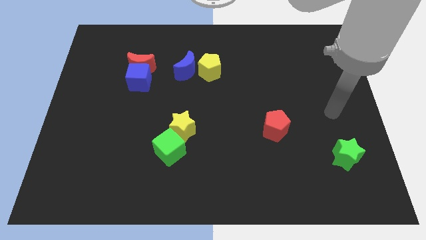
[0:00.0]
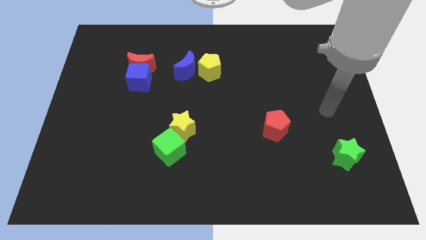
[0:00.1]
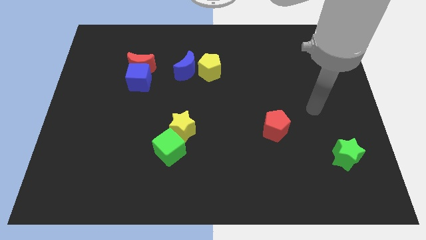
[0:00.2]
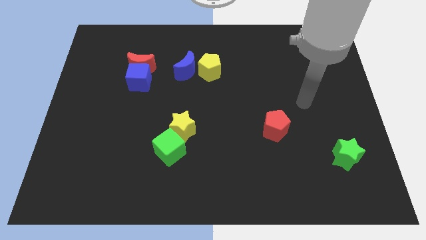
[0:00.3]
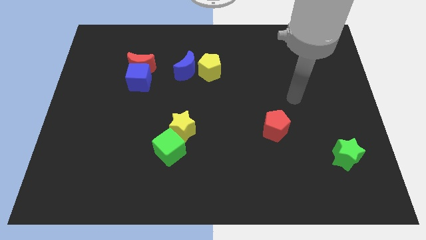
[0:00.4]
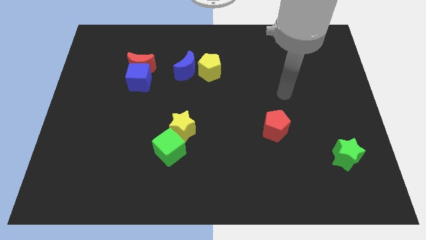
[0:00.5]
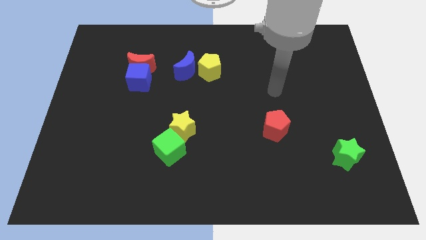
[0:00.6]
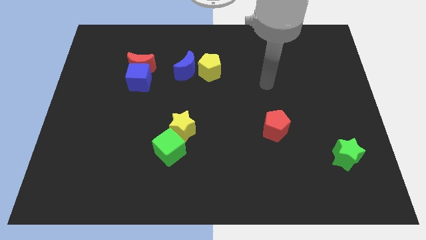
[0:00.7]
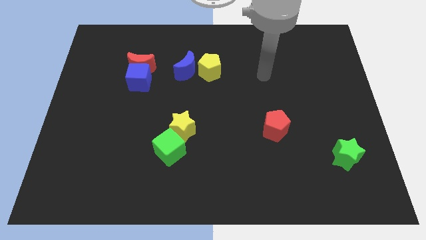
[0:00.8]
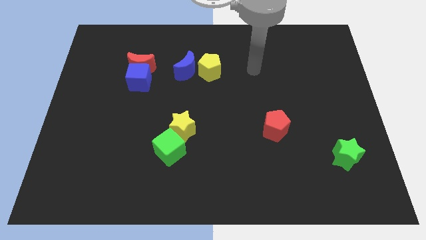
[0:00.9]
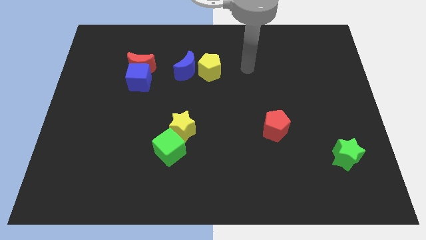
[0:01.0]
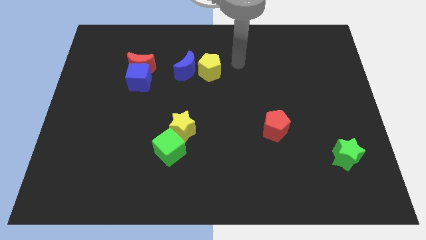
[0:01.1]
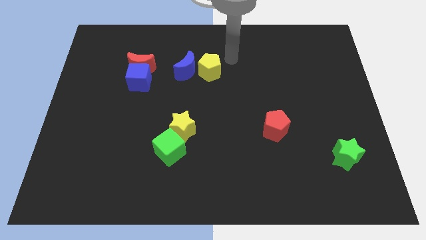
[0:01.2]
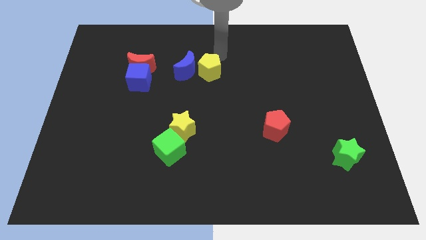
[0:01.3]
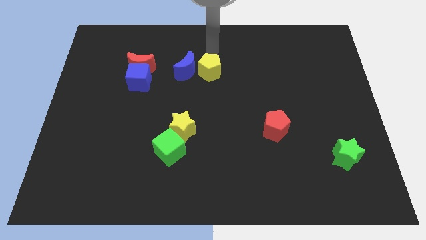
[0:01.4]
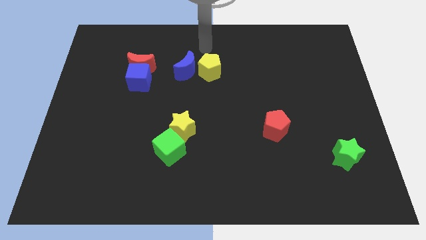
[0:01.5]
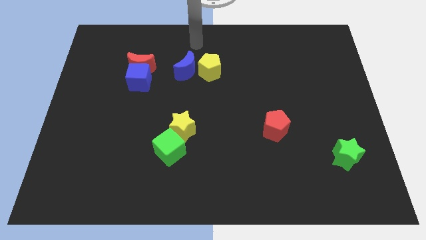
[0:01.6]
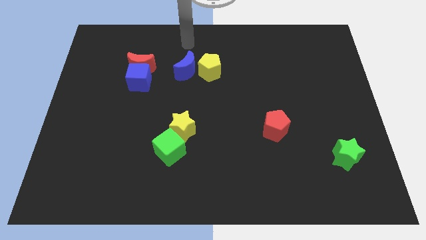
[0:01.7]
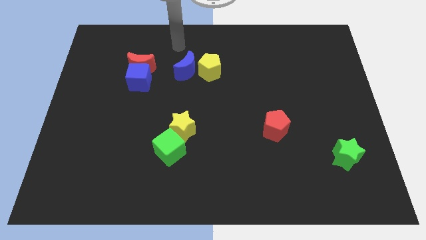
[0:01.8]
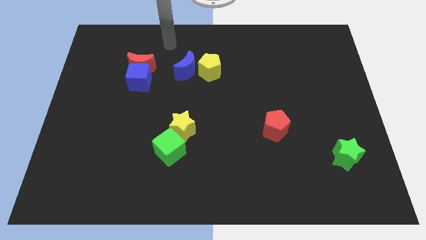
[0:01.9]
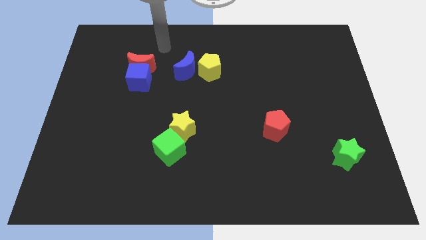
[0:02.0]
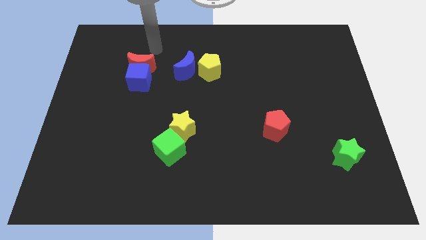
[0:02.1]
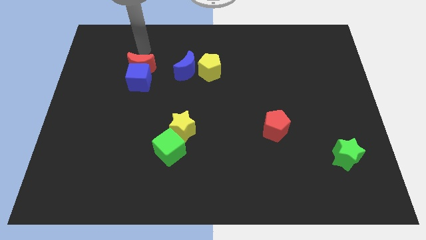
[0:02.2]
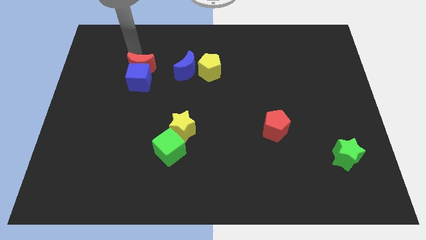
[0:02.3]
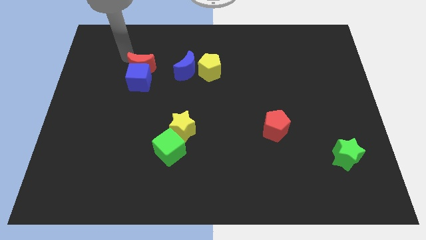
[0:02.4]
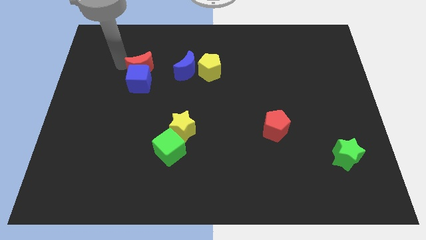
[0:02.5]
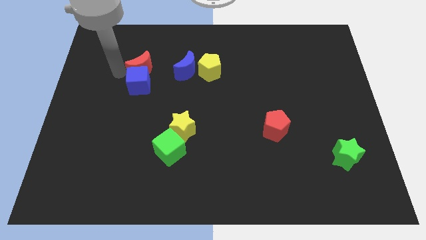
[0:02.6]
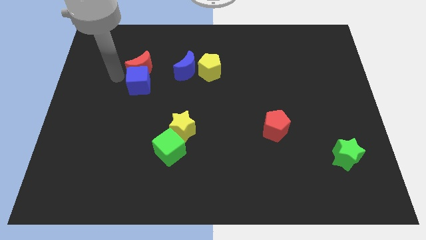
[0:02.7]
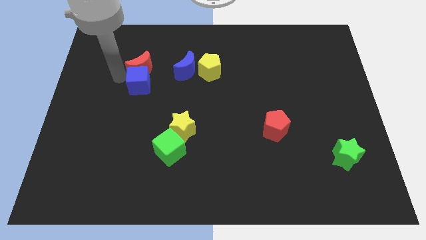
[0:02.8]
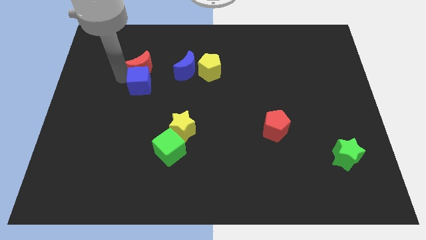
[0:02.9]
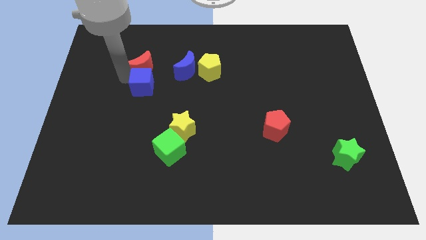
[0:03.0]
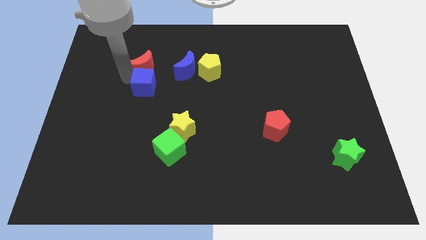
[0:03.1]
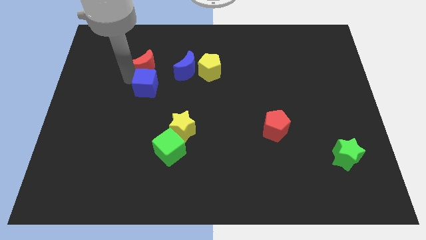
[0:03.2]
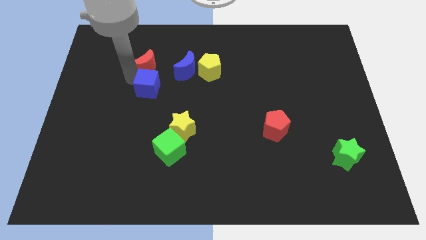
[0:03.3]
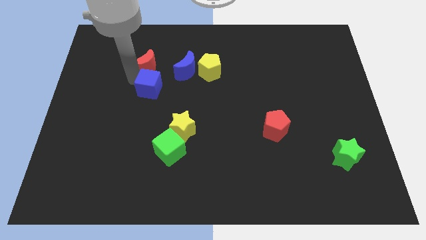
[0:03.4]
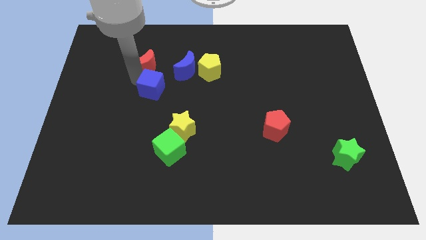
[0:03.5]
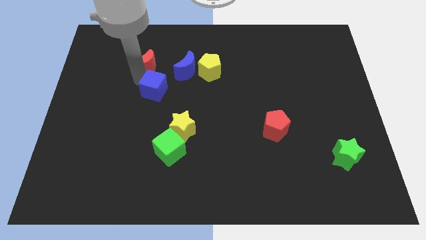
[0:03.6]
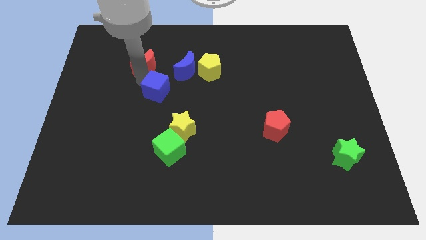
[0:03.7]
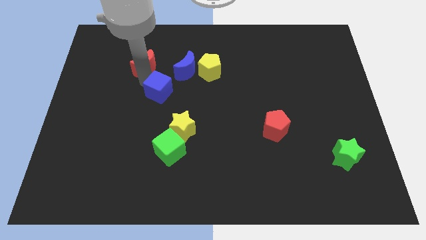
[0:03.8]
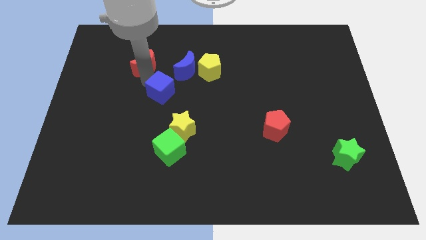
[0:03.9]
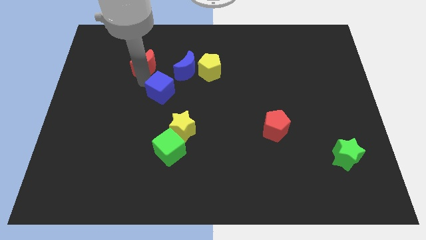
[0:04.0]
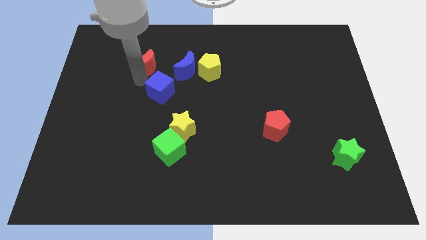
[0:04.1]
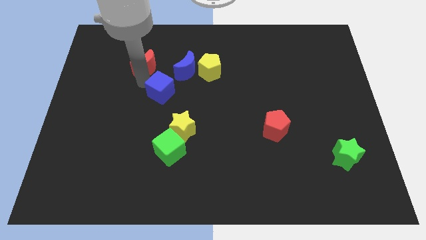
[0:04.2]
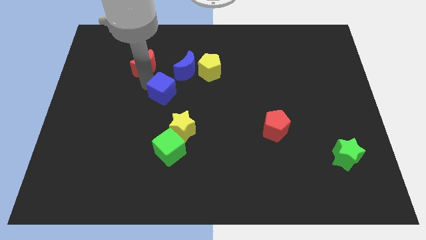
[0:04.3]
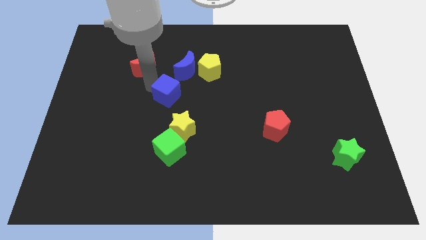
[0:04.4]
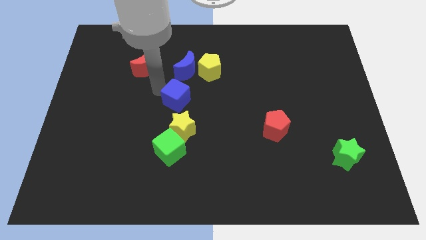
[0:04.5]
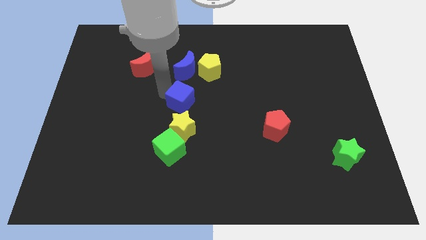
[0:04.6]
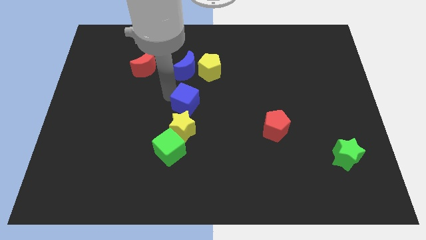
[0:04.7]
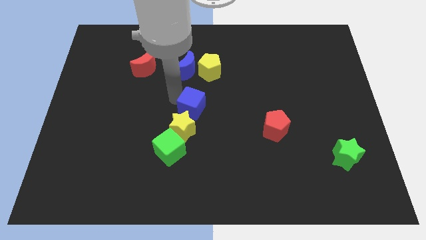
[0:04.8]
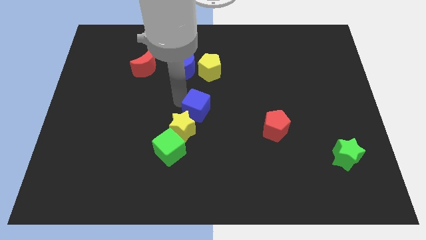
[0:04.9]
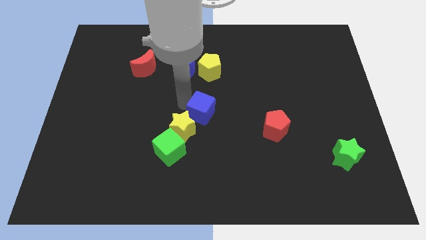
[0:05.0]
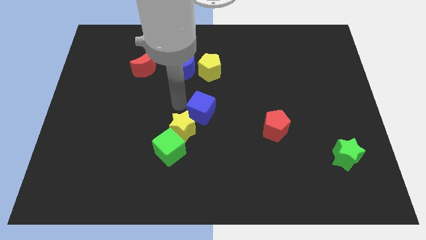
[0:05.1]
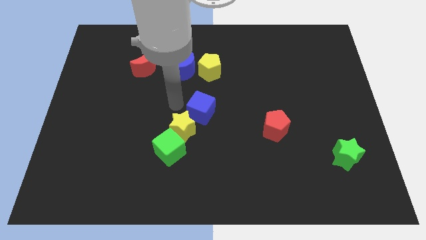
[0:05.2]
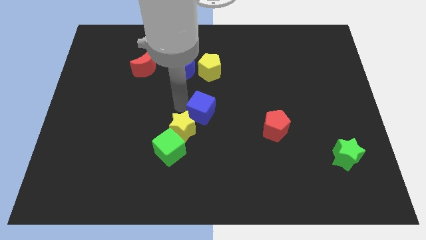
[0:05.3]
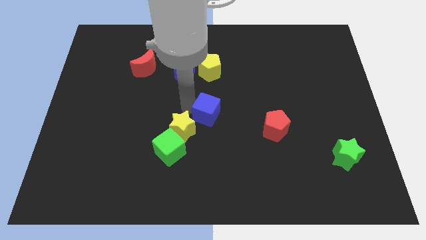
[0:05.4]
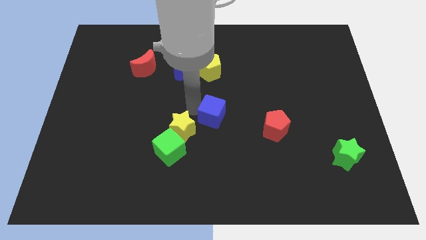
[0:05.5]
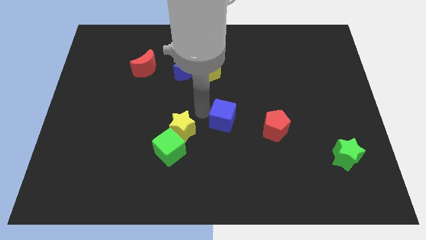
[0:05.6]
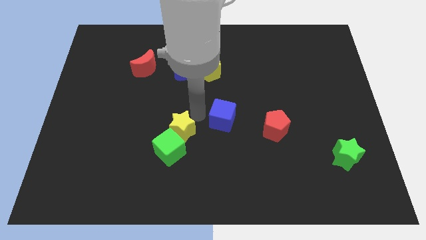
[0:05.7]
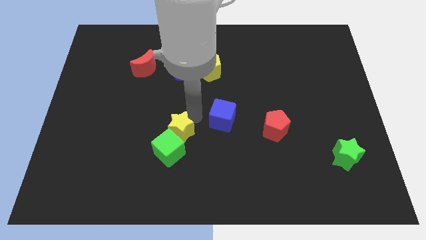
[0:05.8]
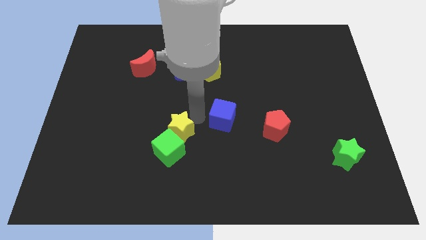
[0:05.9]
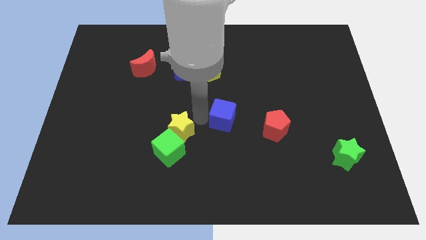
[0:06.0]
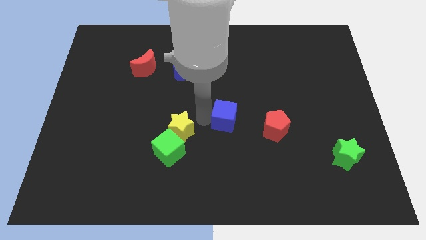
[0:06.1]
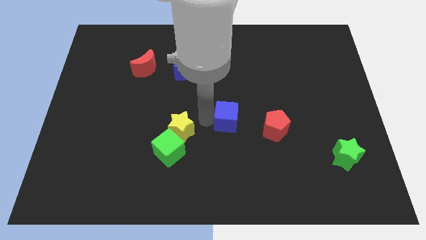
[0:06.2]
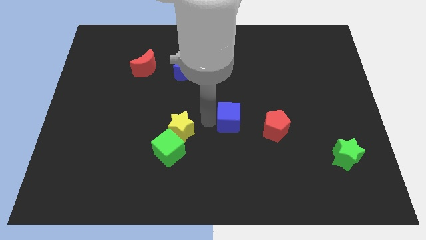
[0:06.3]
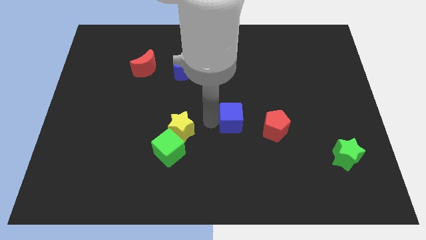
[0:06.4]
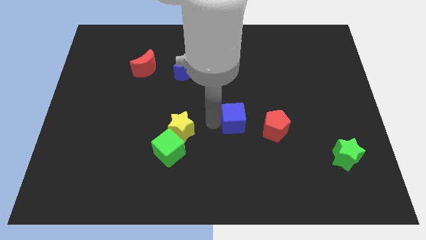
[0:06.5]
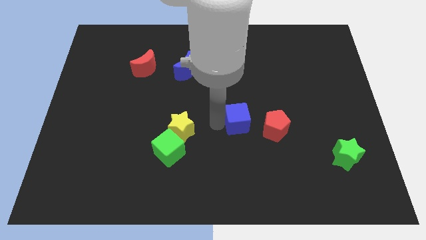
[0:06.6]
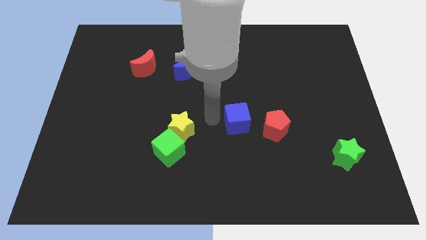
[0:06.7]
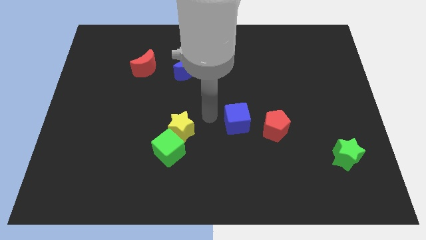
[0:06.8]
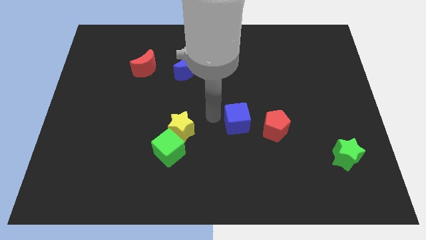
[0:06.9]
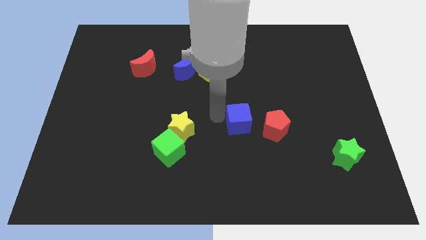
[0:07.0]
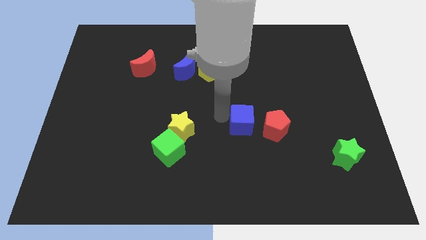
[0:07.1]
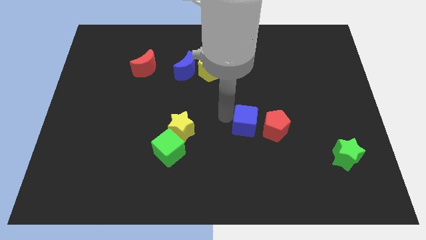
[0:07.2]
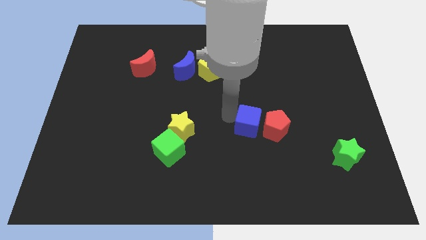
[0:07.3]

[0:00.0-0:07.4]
move the blue cube towards the red pentagon
